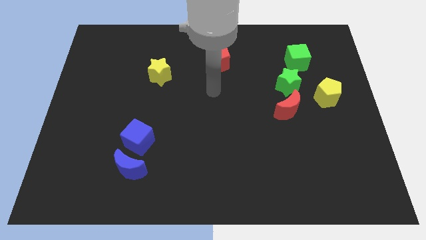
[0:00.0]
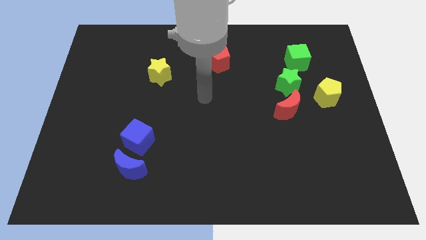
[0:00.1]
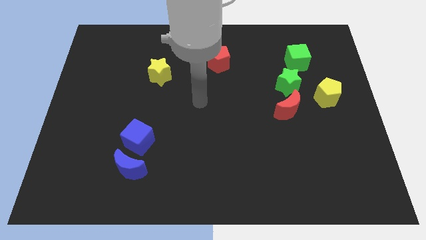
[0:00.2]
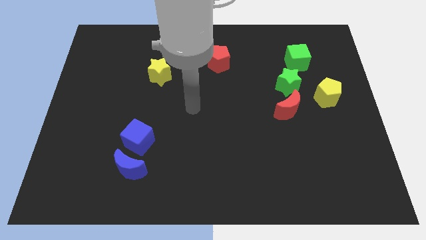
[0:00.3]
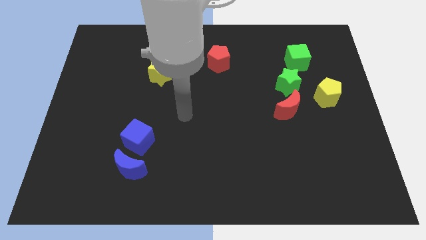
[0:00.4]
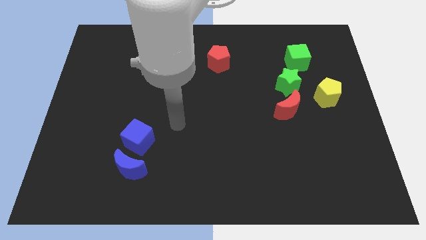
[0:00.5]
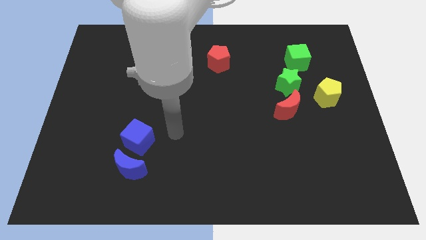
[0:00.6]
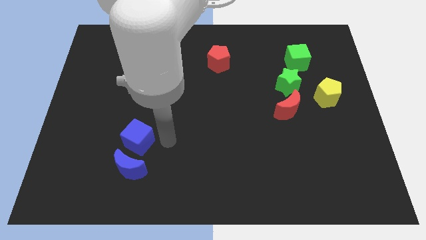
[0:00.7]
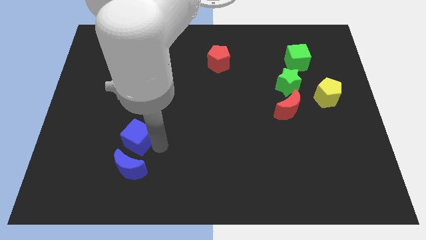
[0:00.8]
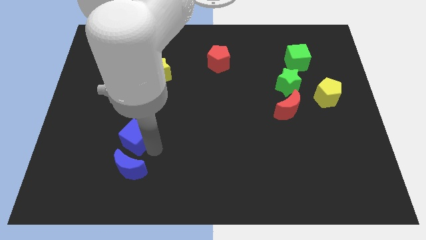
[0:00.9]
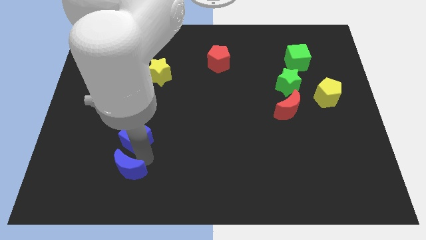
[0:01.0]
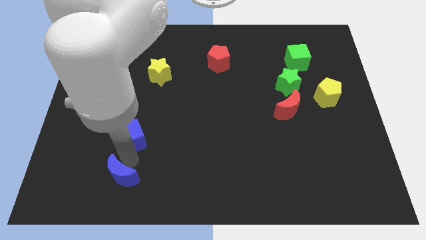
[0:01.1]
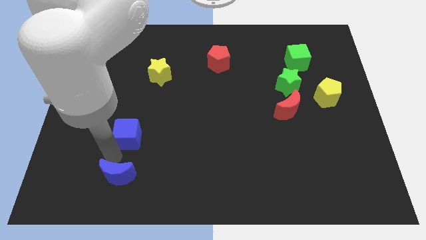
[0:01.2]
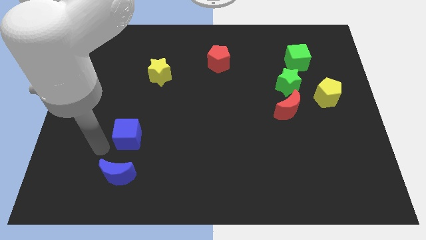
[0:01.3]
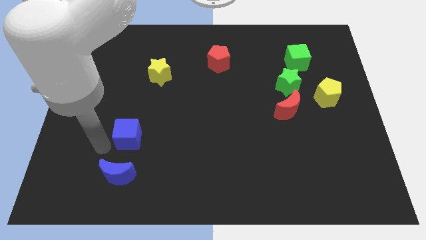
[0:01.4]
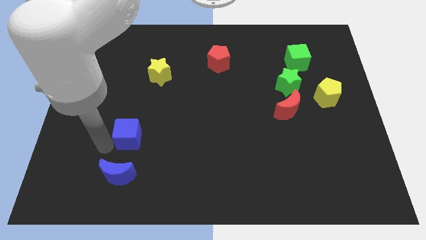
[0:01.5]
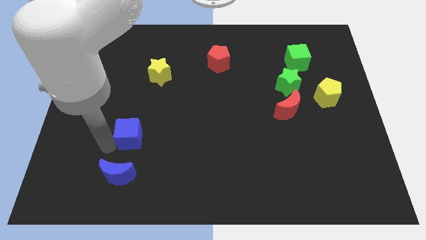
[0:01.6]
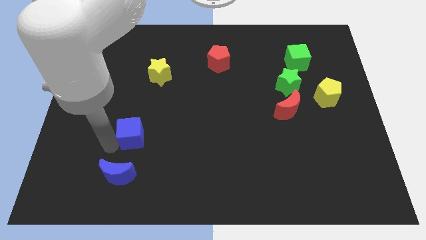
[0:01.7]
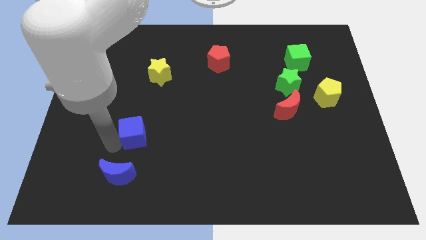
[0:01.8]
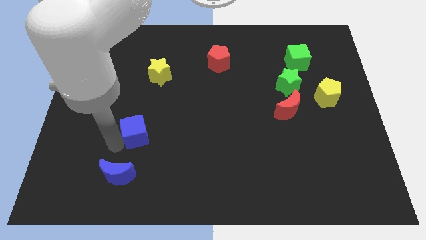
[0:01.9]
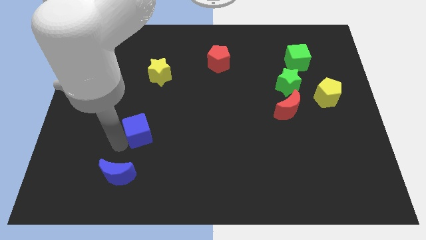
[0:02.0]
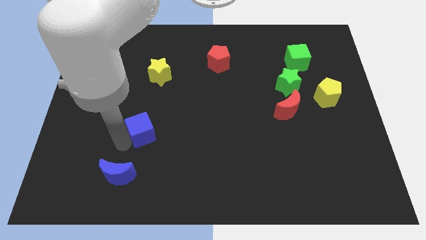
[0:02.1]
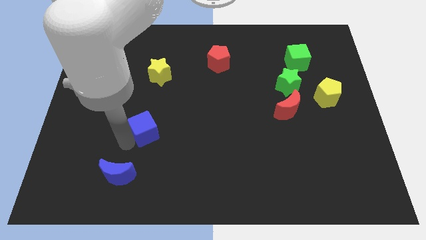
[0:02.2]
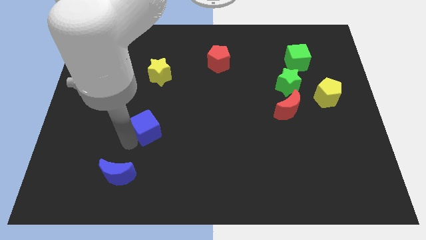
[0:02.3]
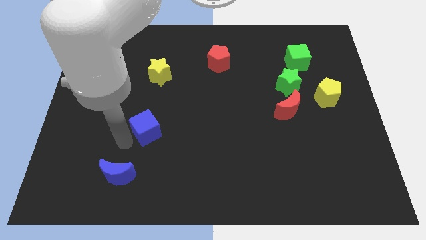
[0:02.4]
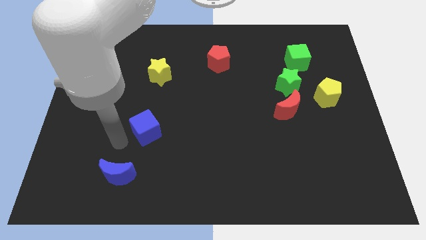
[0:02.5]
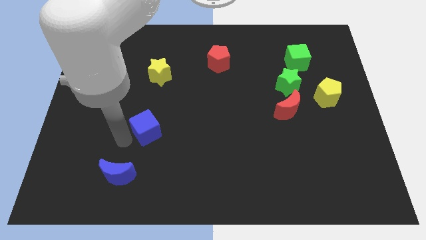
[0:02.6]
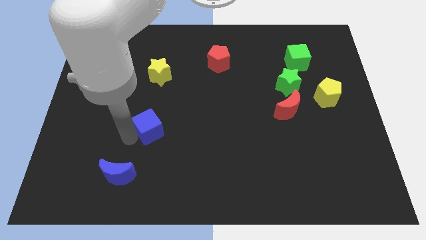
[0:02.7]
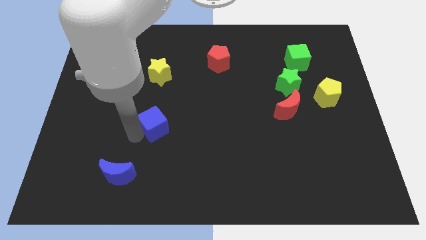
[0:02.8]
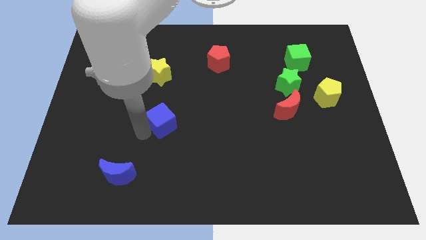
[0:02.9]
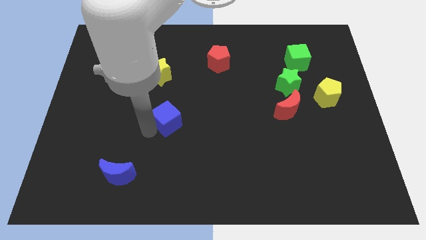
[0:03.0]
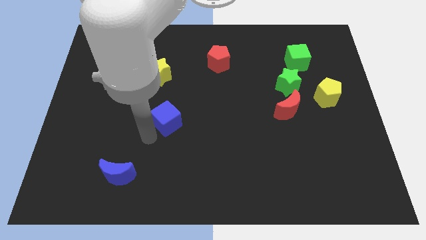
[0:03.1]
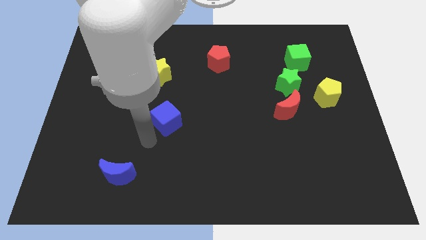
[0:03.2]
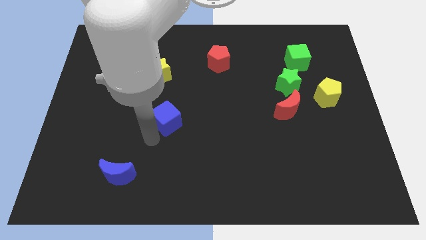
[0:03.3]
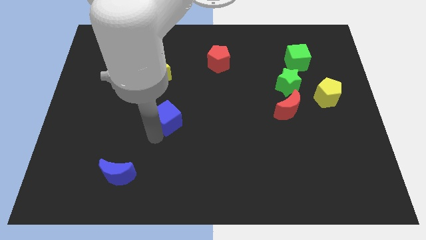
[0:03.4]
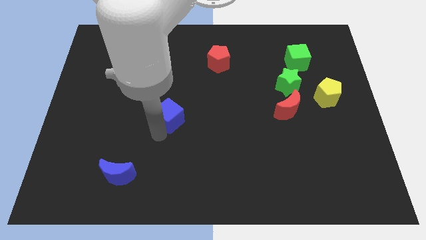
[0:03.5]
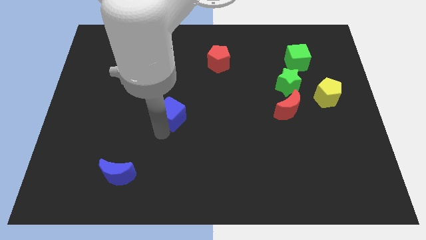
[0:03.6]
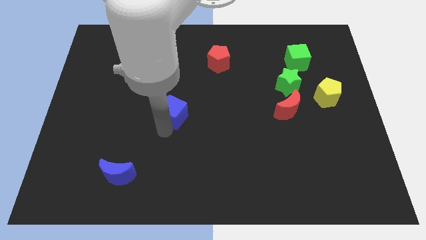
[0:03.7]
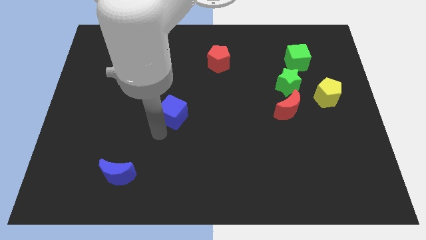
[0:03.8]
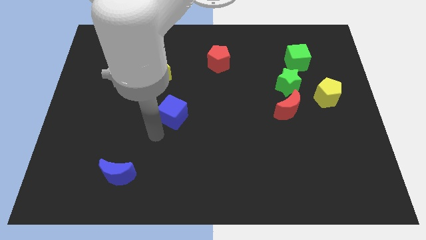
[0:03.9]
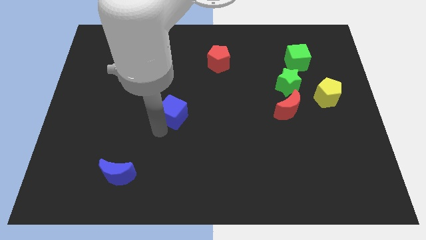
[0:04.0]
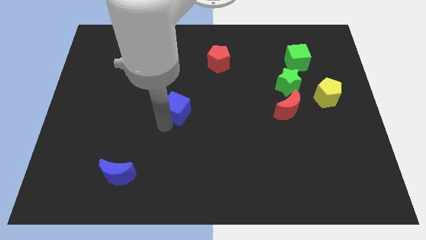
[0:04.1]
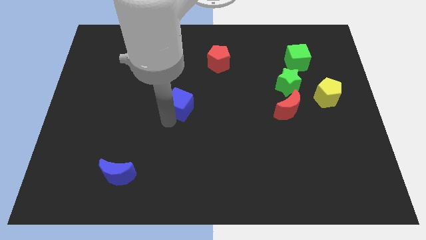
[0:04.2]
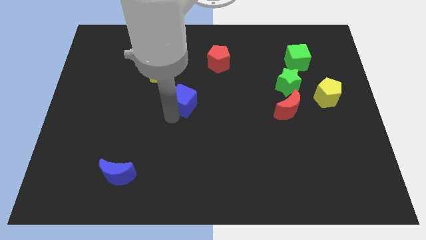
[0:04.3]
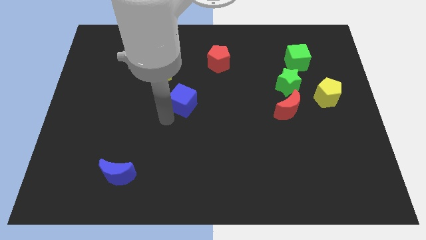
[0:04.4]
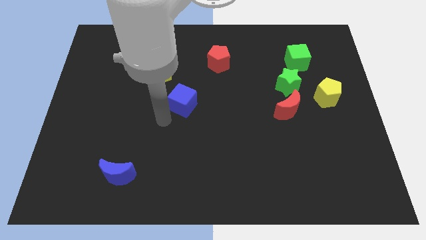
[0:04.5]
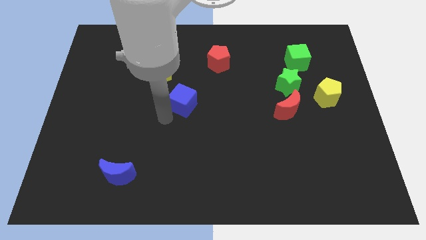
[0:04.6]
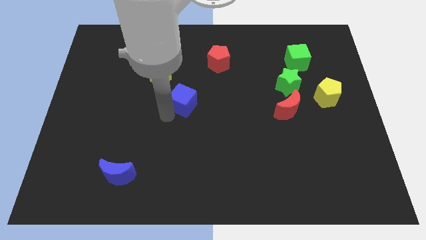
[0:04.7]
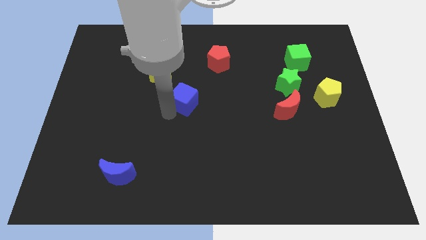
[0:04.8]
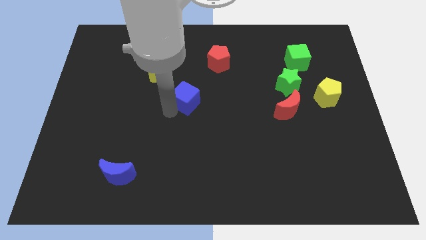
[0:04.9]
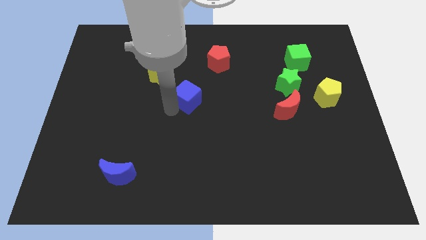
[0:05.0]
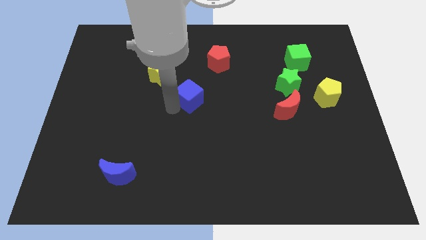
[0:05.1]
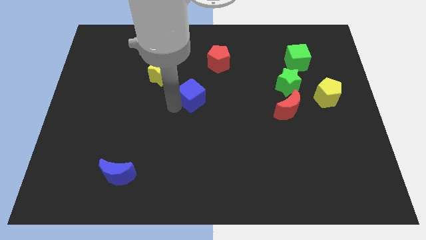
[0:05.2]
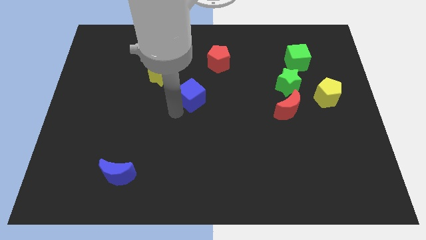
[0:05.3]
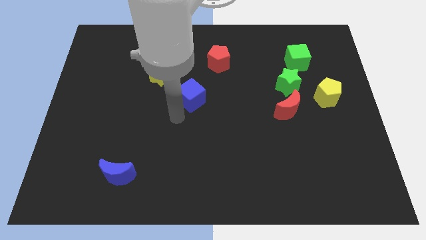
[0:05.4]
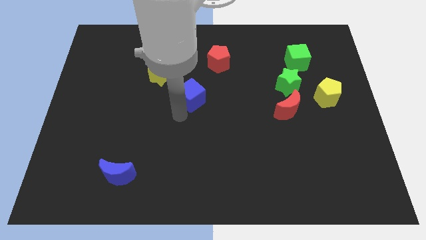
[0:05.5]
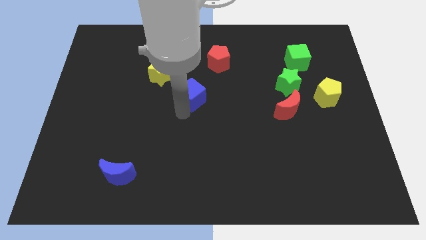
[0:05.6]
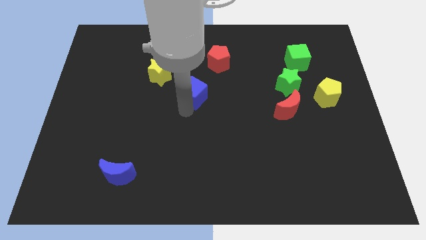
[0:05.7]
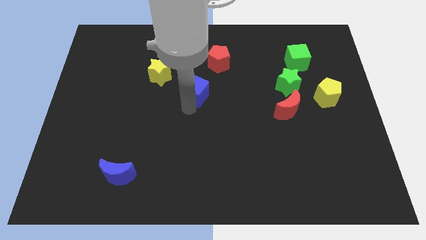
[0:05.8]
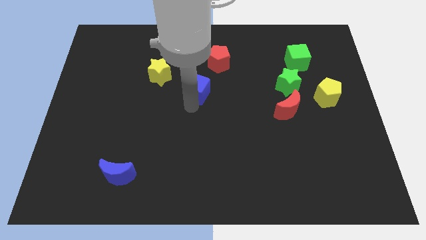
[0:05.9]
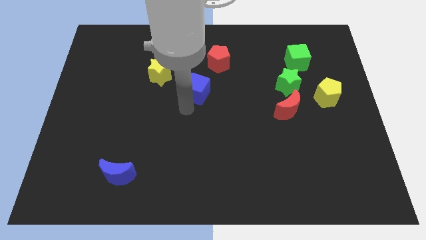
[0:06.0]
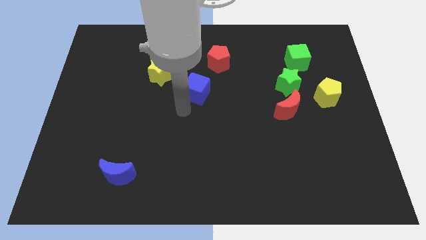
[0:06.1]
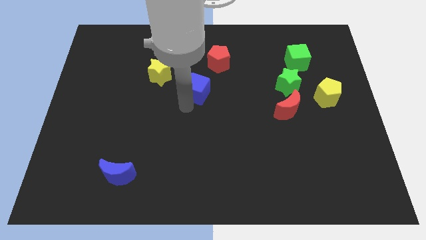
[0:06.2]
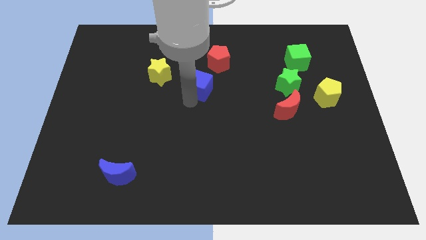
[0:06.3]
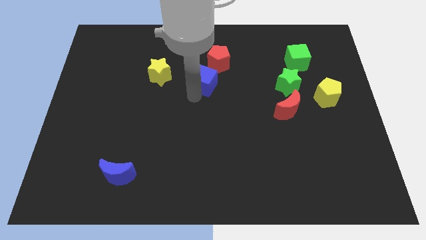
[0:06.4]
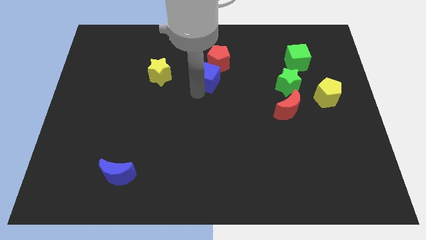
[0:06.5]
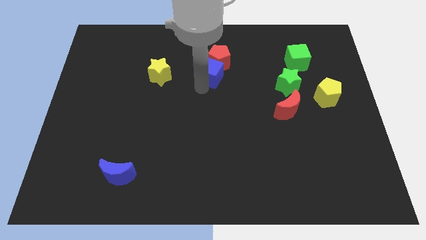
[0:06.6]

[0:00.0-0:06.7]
push the blue cube to the red pentagon

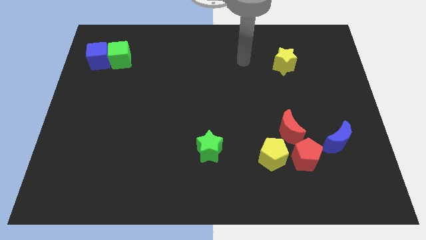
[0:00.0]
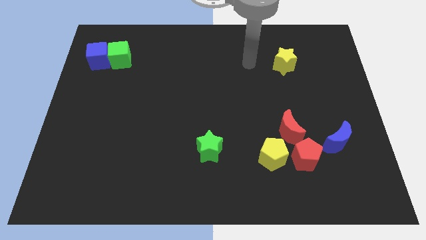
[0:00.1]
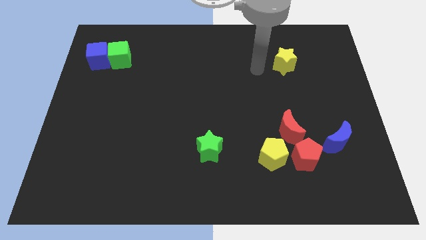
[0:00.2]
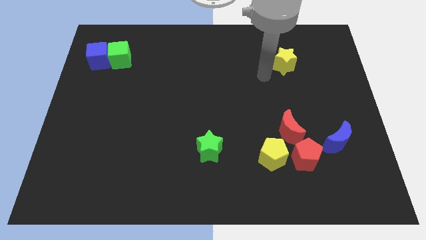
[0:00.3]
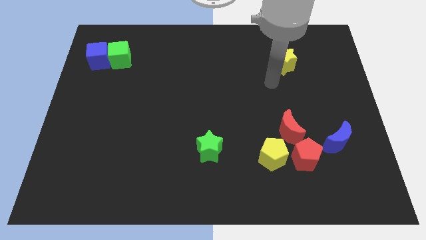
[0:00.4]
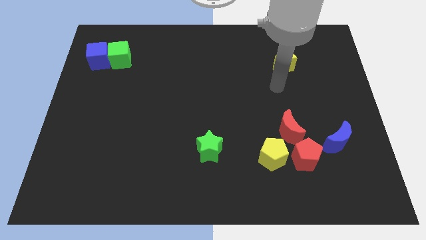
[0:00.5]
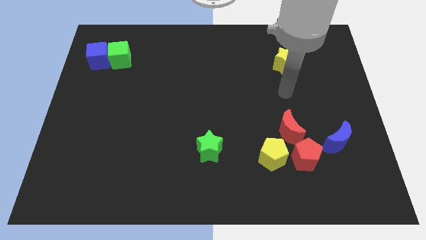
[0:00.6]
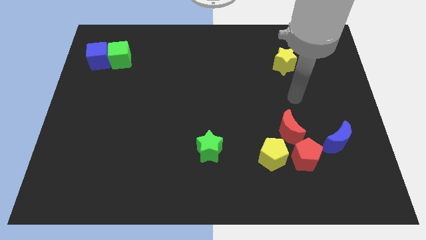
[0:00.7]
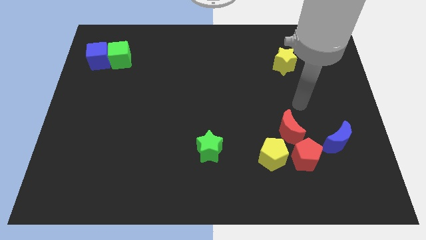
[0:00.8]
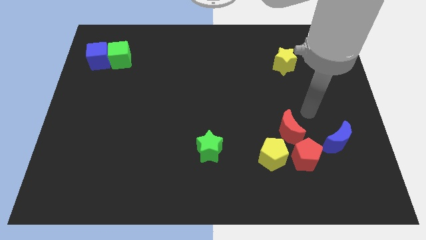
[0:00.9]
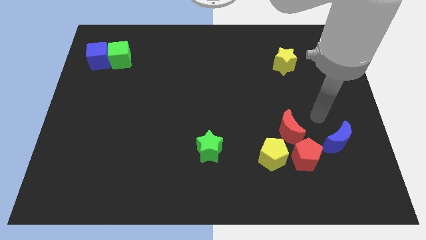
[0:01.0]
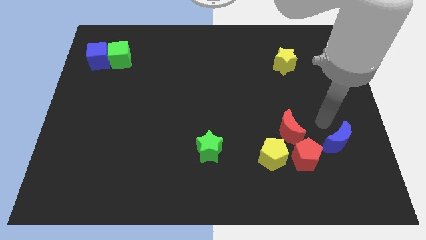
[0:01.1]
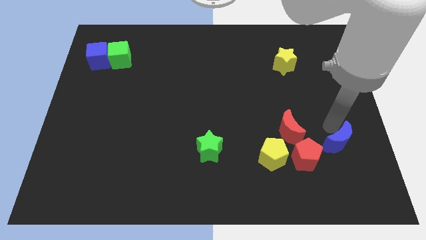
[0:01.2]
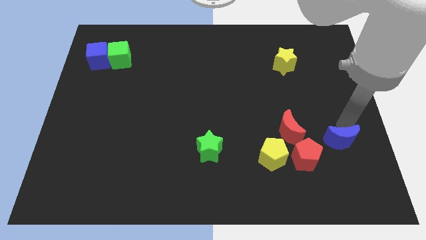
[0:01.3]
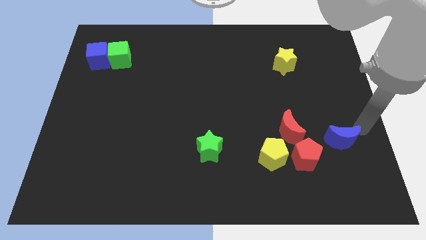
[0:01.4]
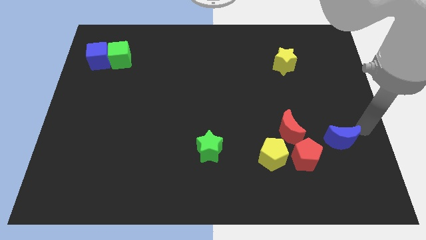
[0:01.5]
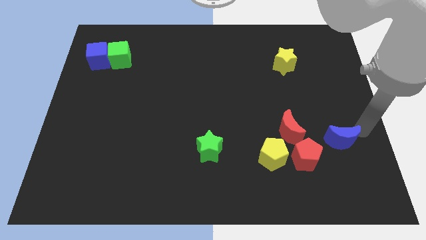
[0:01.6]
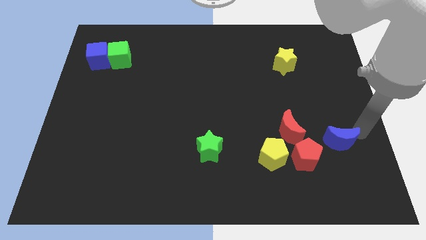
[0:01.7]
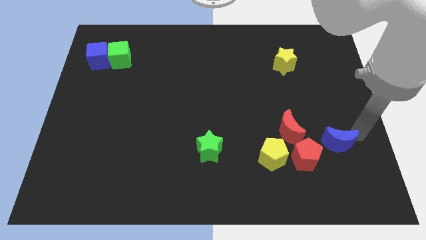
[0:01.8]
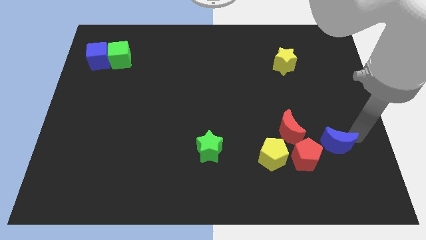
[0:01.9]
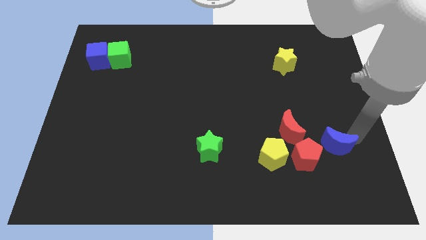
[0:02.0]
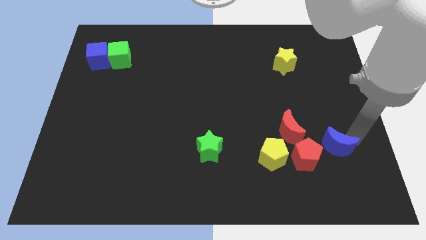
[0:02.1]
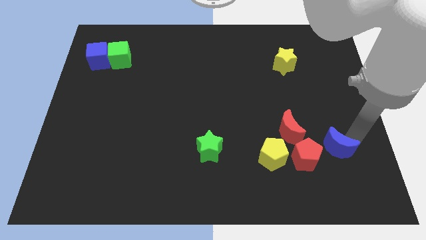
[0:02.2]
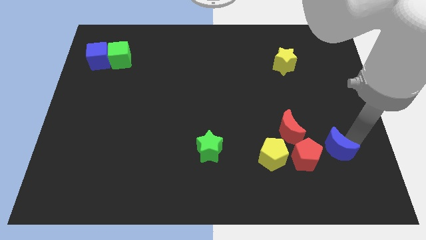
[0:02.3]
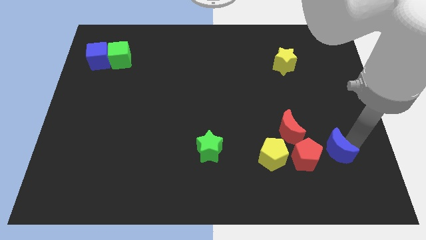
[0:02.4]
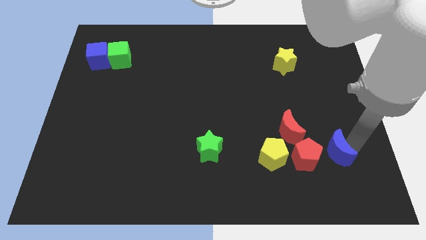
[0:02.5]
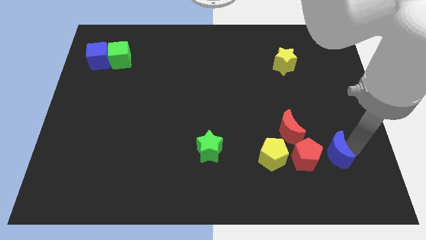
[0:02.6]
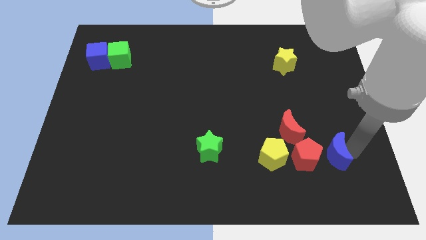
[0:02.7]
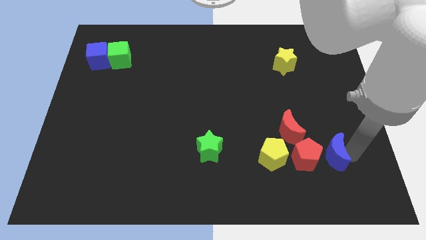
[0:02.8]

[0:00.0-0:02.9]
slide the blue moon towards the red pentagon
